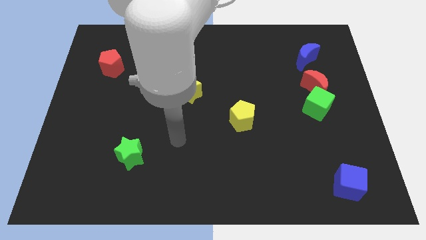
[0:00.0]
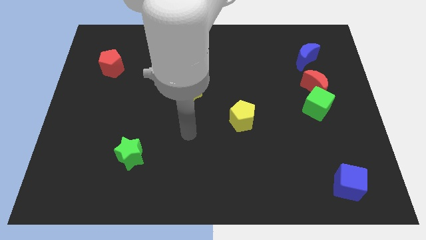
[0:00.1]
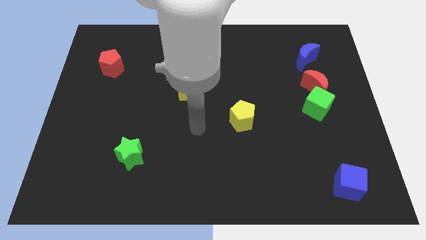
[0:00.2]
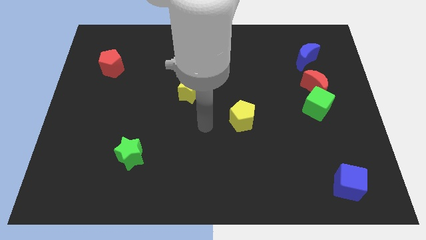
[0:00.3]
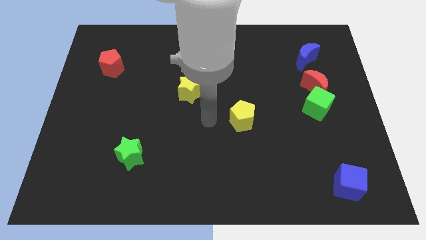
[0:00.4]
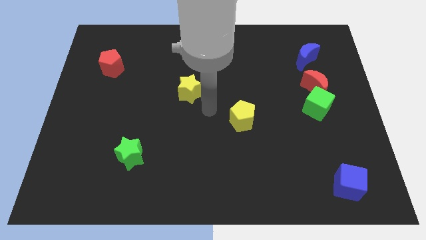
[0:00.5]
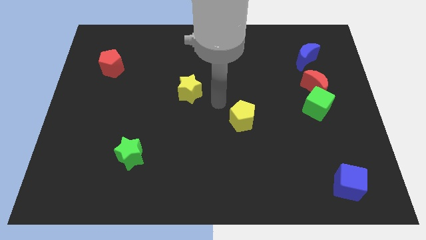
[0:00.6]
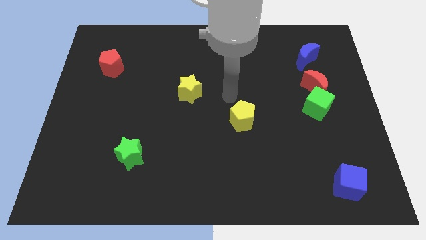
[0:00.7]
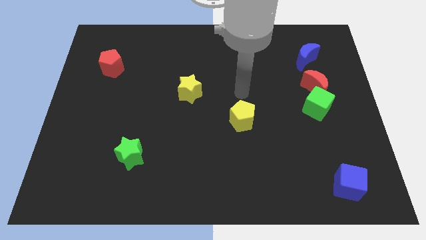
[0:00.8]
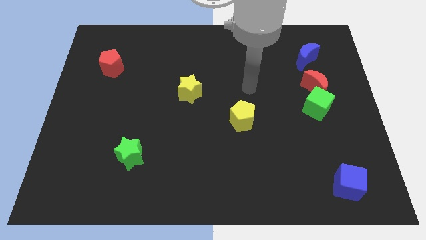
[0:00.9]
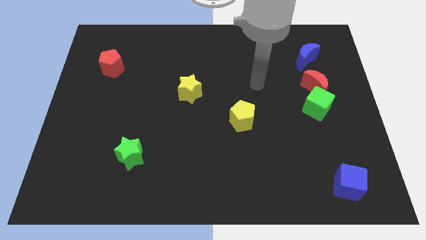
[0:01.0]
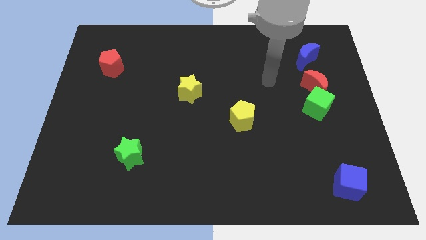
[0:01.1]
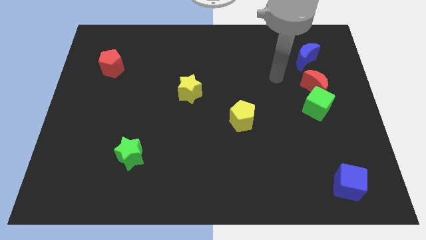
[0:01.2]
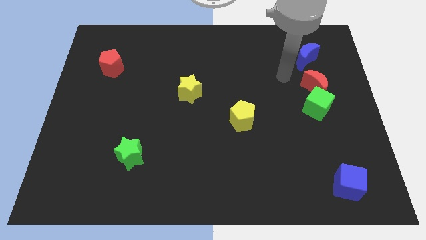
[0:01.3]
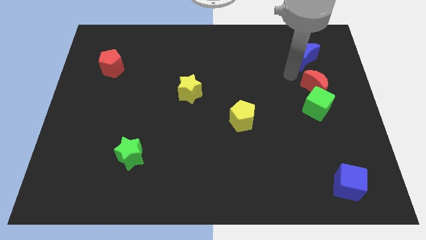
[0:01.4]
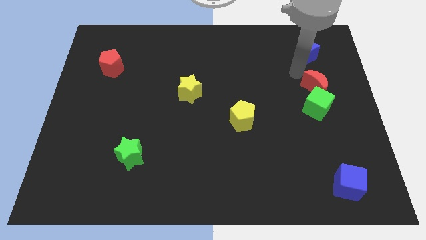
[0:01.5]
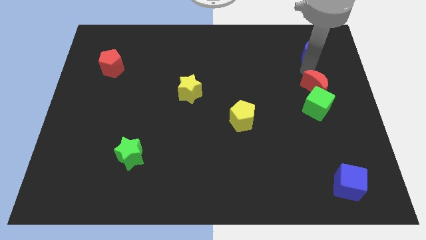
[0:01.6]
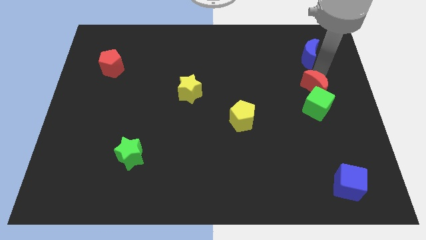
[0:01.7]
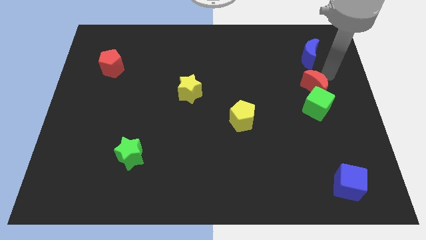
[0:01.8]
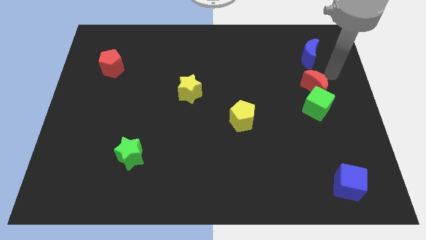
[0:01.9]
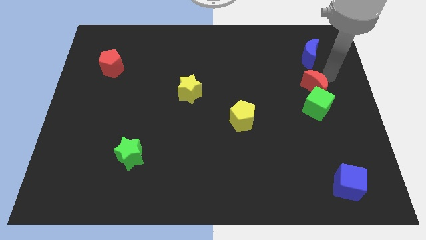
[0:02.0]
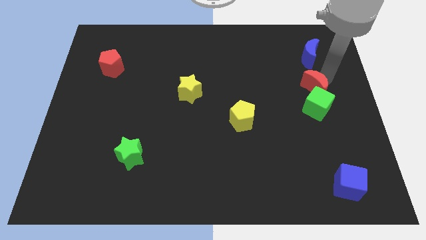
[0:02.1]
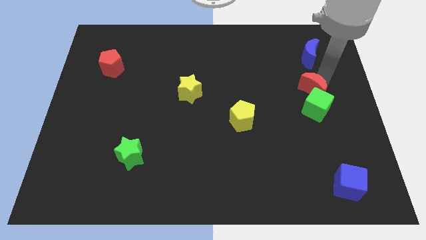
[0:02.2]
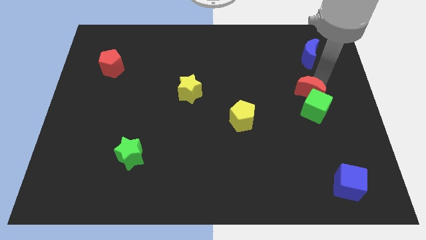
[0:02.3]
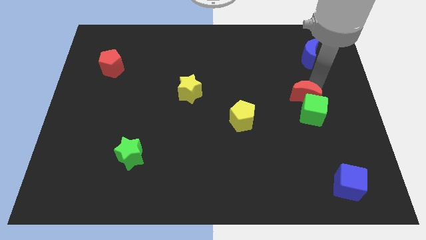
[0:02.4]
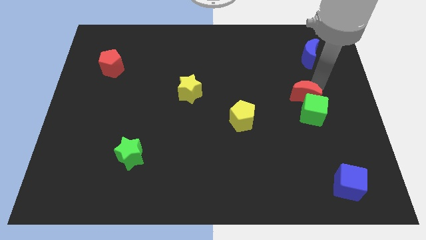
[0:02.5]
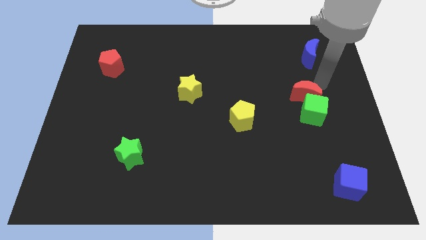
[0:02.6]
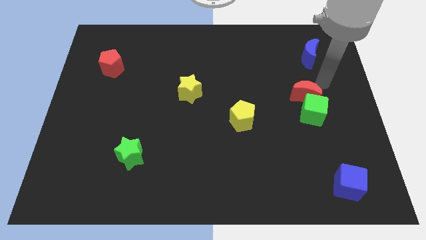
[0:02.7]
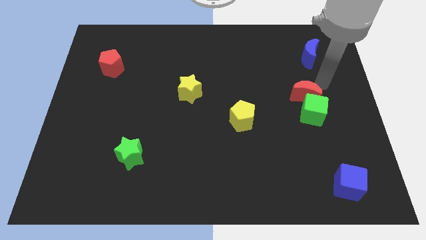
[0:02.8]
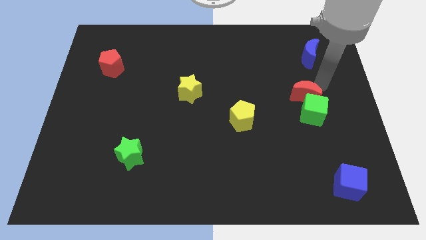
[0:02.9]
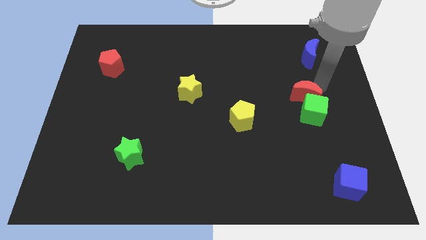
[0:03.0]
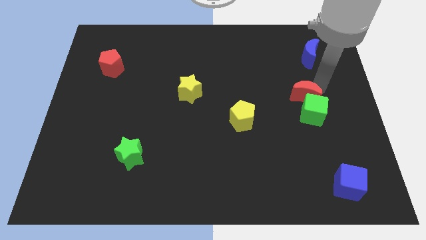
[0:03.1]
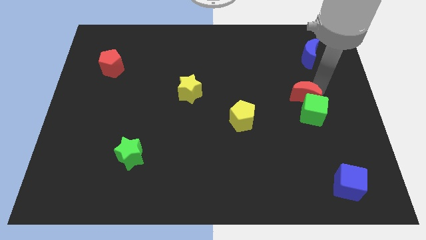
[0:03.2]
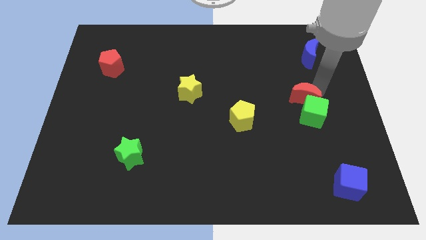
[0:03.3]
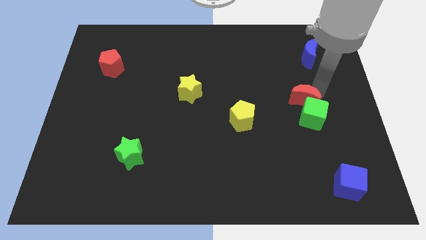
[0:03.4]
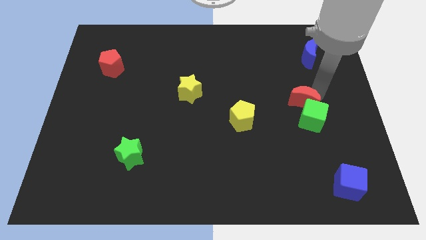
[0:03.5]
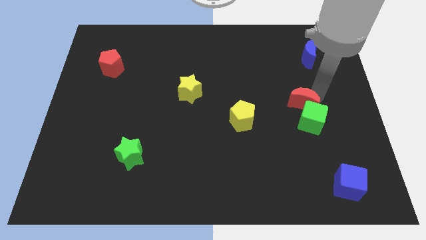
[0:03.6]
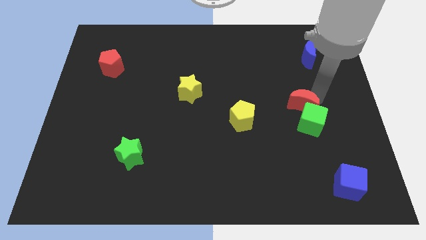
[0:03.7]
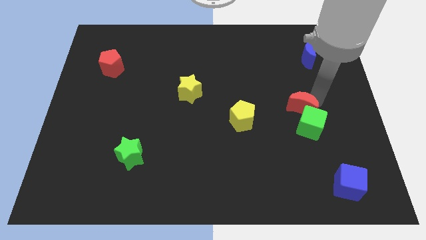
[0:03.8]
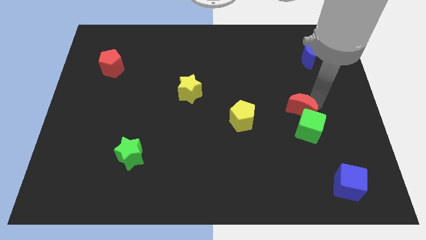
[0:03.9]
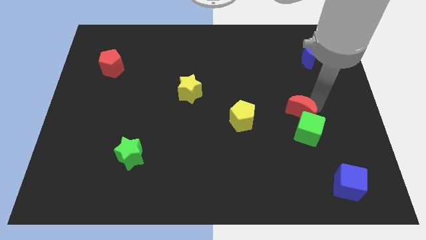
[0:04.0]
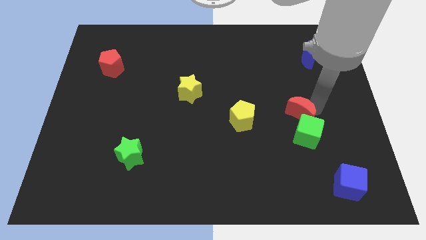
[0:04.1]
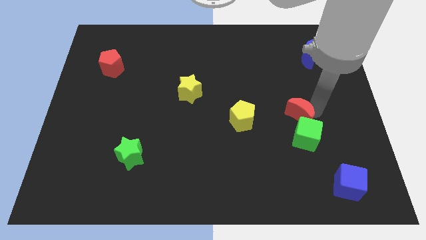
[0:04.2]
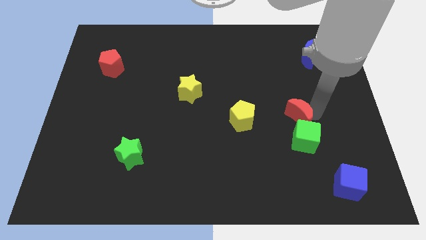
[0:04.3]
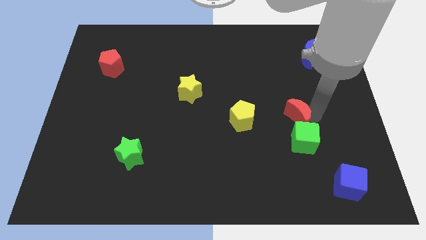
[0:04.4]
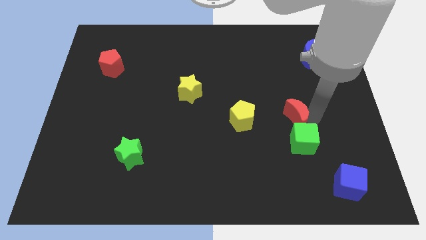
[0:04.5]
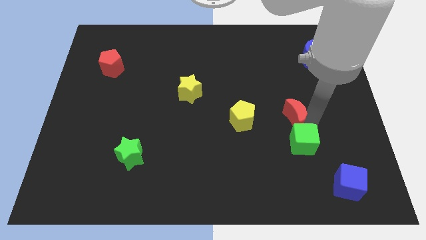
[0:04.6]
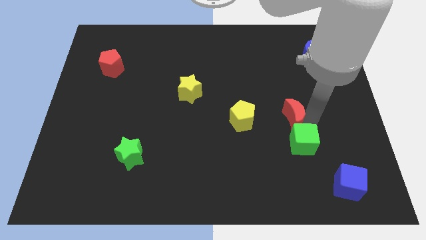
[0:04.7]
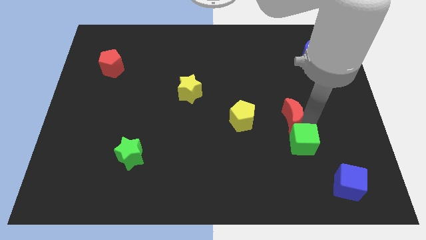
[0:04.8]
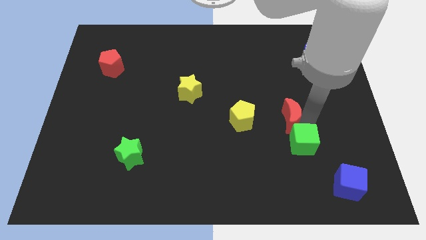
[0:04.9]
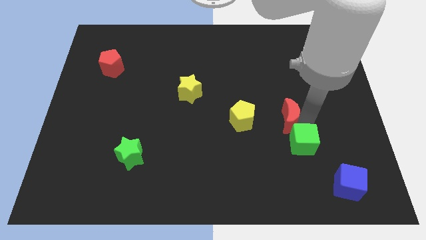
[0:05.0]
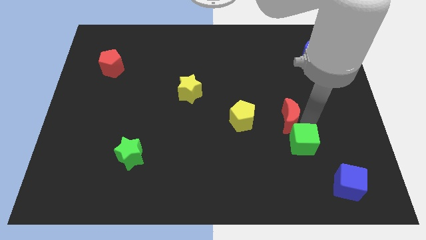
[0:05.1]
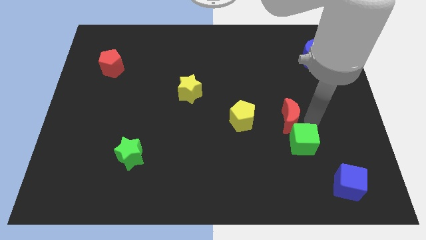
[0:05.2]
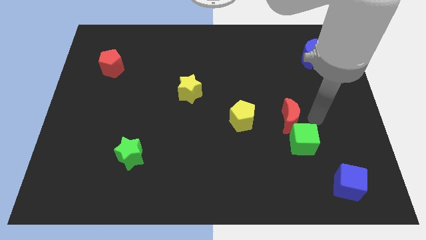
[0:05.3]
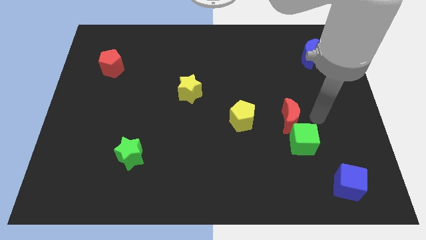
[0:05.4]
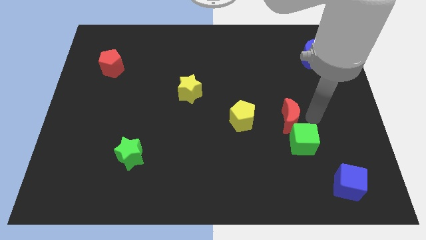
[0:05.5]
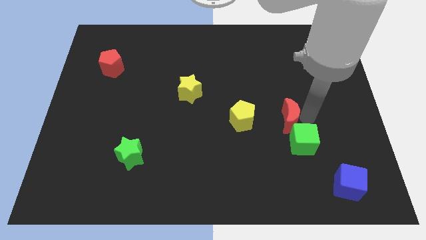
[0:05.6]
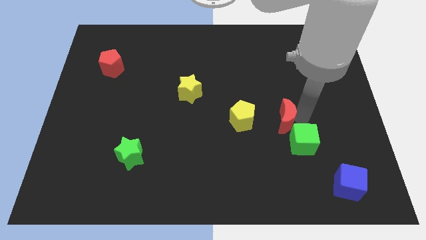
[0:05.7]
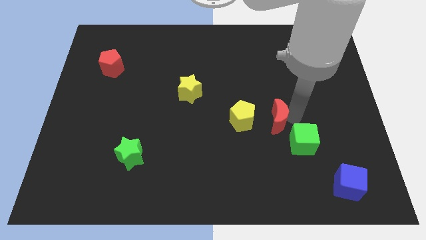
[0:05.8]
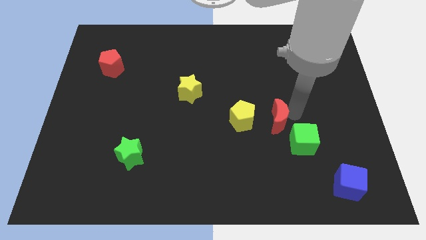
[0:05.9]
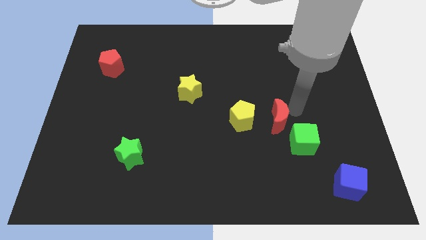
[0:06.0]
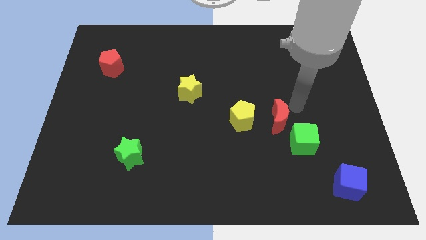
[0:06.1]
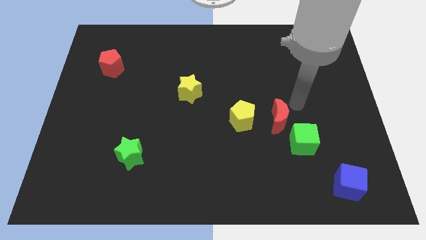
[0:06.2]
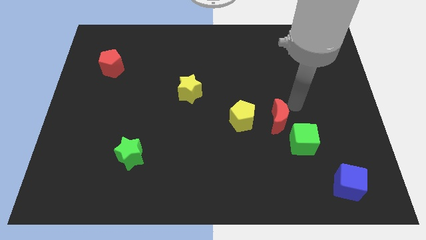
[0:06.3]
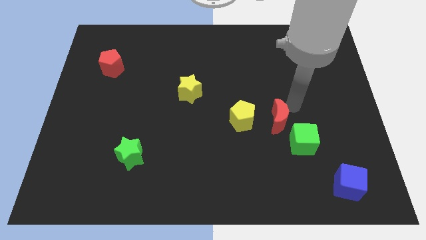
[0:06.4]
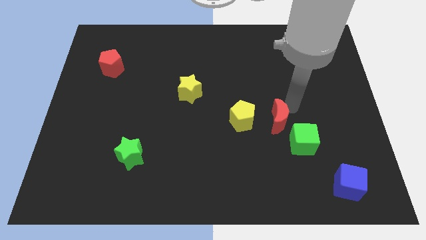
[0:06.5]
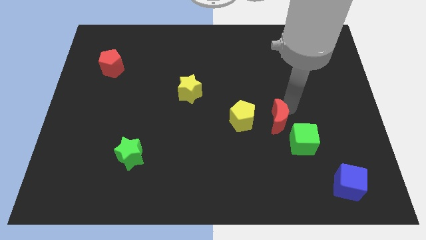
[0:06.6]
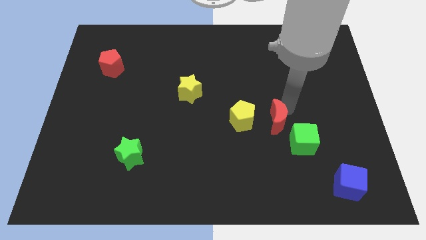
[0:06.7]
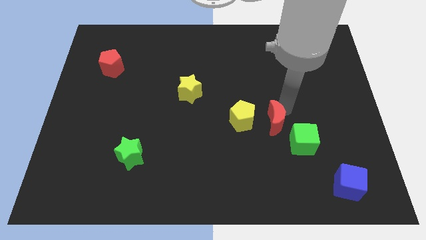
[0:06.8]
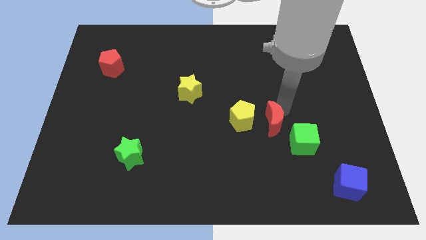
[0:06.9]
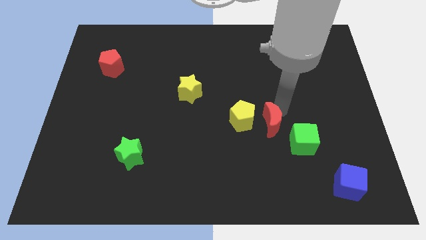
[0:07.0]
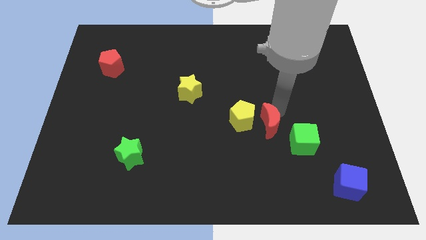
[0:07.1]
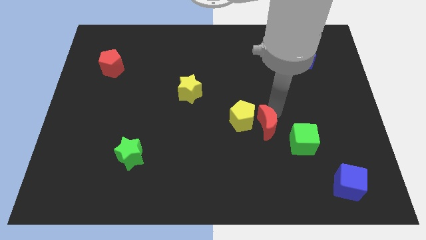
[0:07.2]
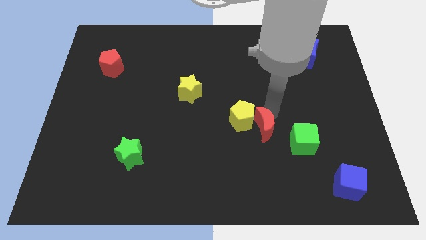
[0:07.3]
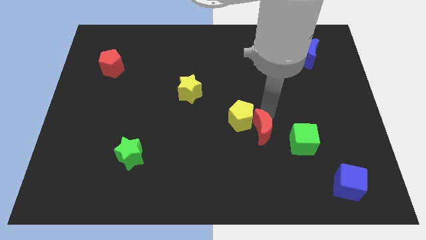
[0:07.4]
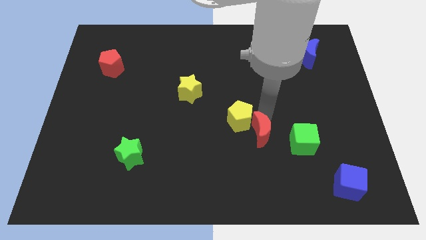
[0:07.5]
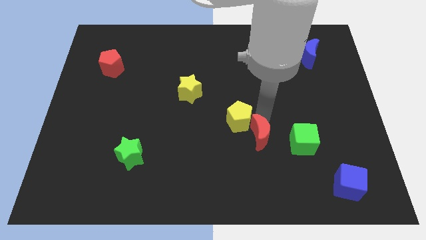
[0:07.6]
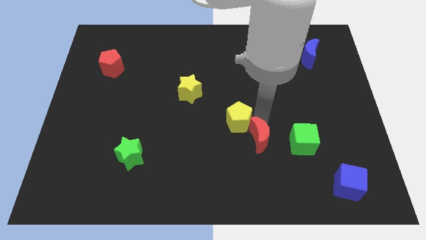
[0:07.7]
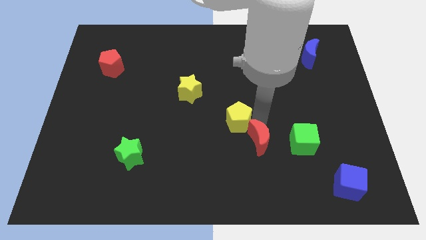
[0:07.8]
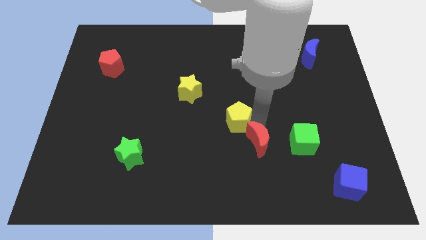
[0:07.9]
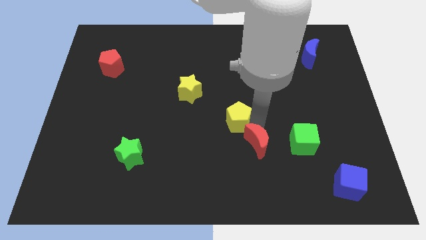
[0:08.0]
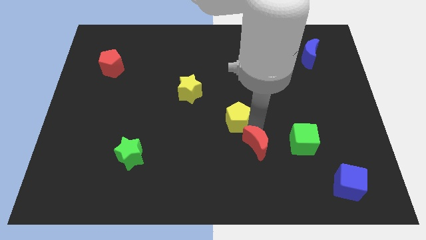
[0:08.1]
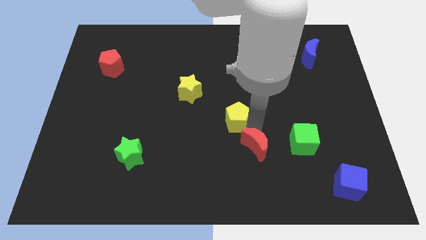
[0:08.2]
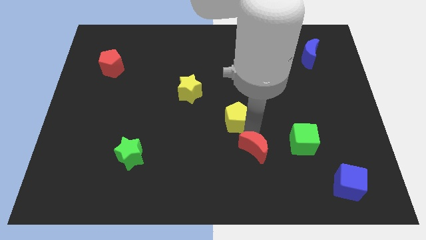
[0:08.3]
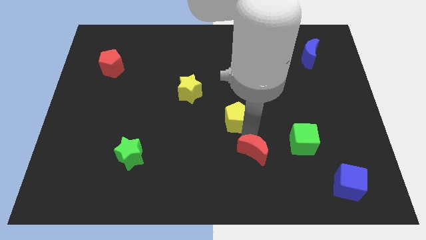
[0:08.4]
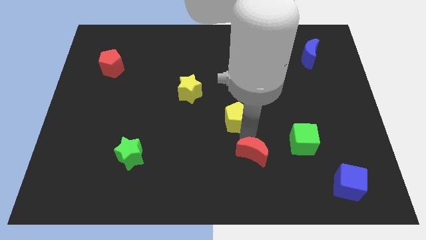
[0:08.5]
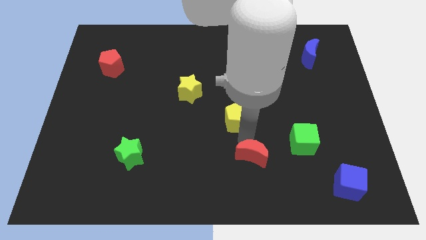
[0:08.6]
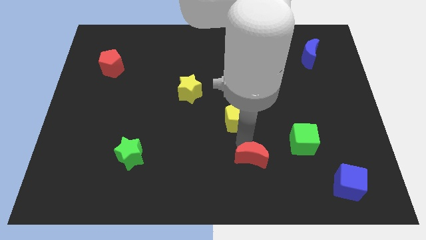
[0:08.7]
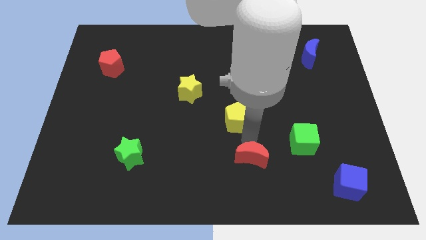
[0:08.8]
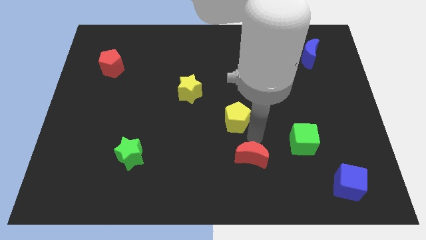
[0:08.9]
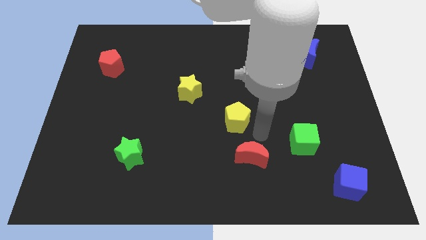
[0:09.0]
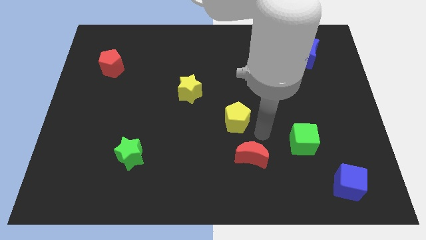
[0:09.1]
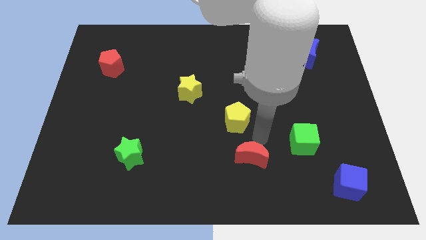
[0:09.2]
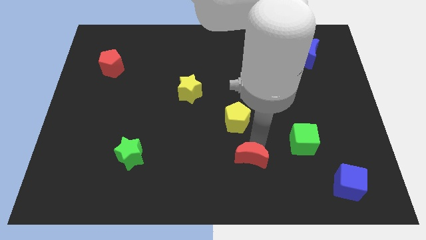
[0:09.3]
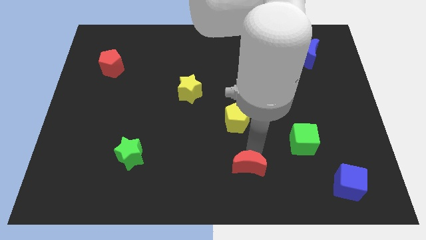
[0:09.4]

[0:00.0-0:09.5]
push the red moon to the bottom side
